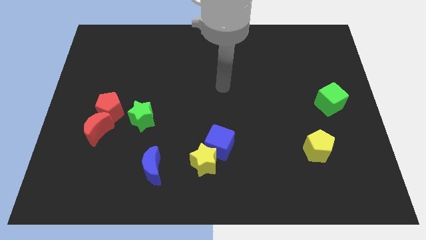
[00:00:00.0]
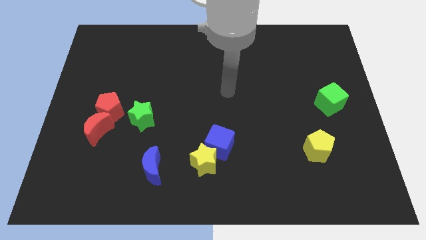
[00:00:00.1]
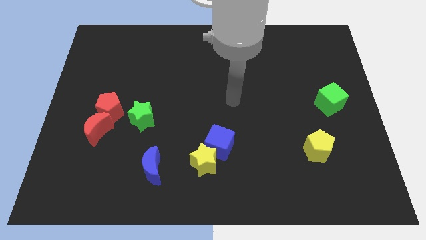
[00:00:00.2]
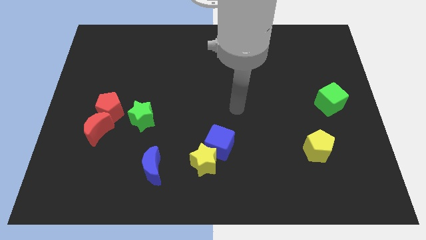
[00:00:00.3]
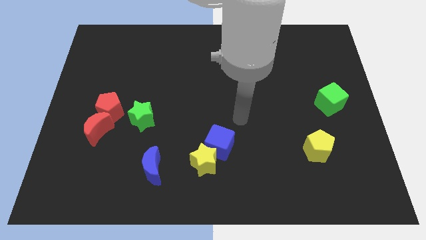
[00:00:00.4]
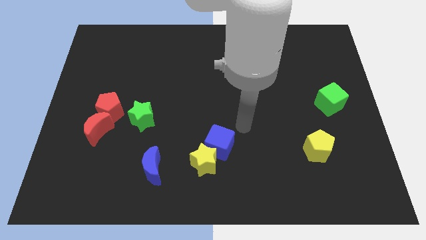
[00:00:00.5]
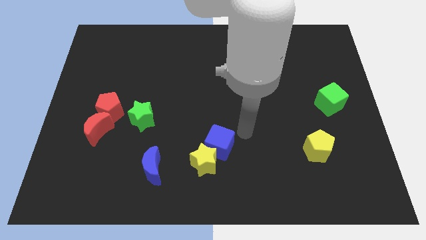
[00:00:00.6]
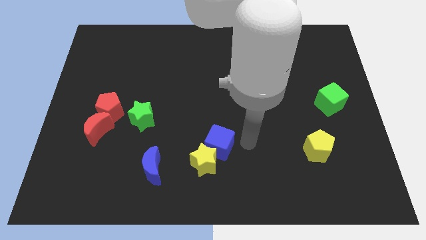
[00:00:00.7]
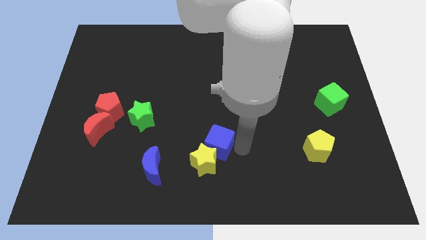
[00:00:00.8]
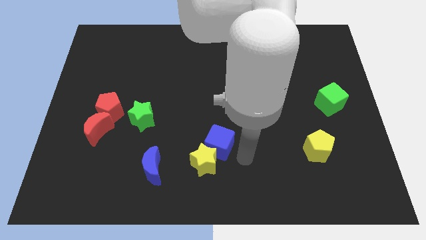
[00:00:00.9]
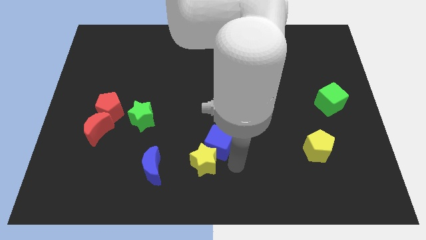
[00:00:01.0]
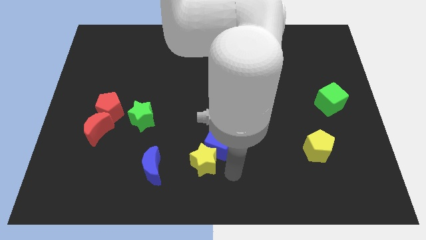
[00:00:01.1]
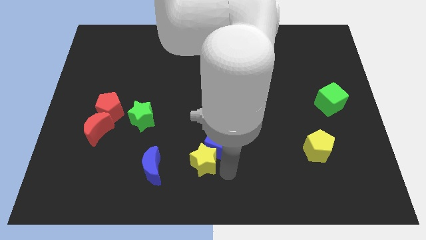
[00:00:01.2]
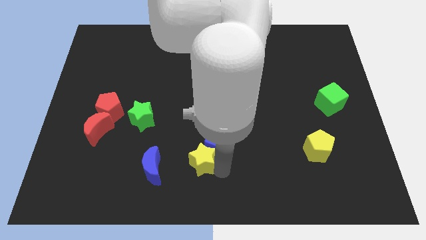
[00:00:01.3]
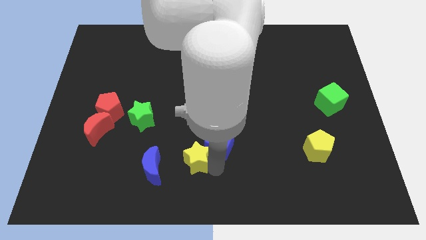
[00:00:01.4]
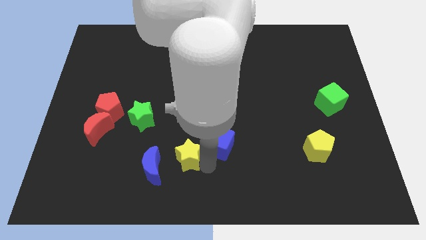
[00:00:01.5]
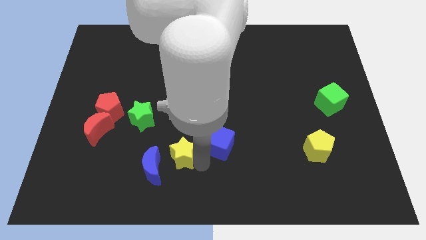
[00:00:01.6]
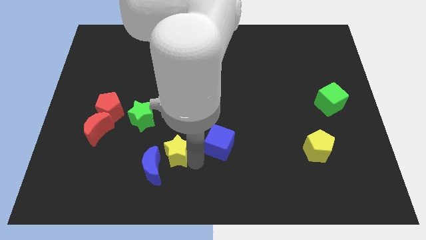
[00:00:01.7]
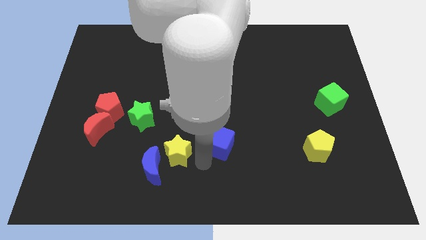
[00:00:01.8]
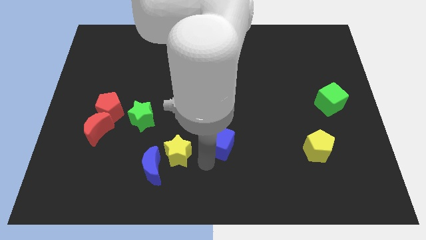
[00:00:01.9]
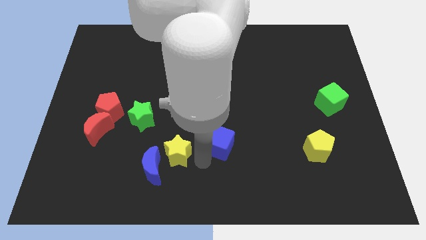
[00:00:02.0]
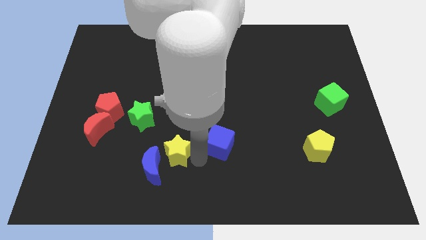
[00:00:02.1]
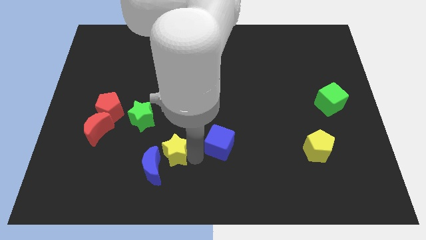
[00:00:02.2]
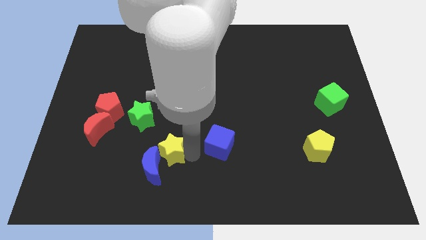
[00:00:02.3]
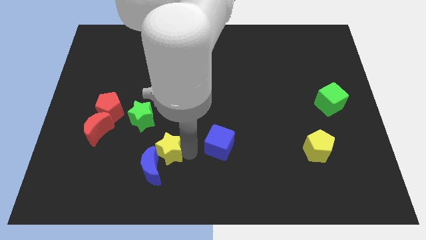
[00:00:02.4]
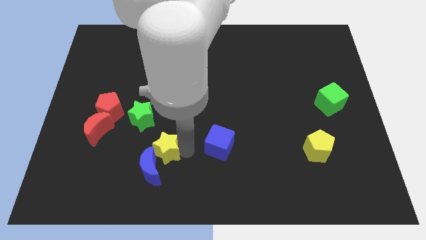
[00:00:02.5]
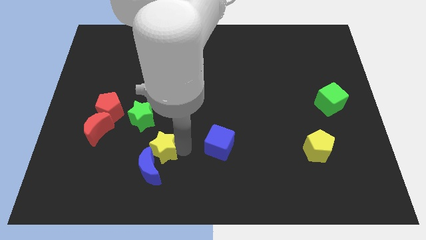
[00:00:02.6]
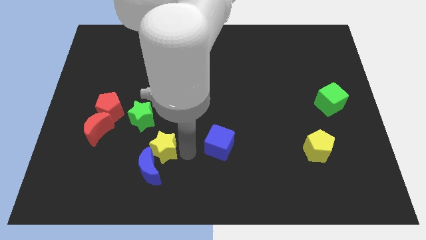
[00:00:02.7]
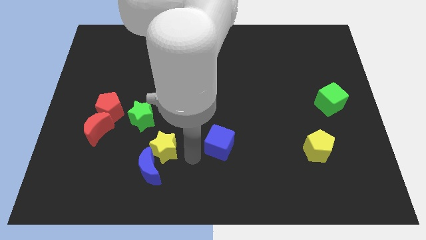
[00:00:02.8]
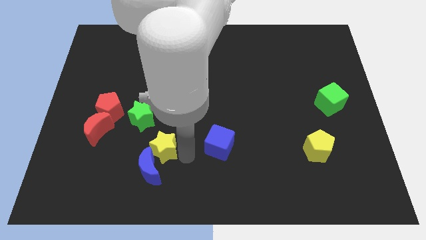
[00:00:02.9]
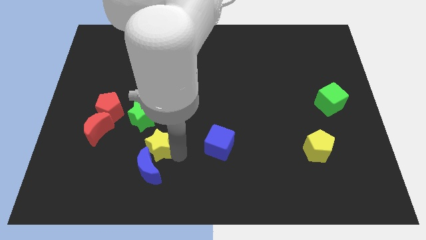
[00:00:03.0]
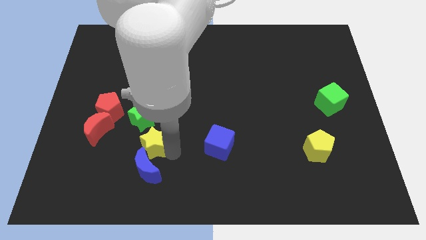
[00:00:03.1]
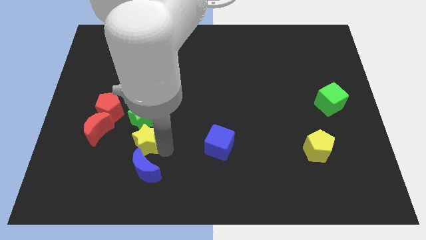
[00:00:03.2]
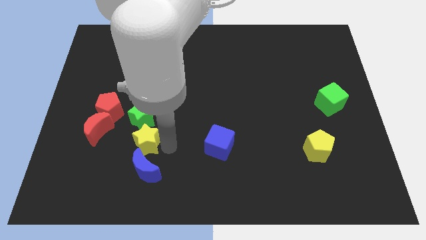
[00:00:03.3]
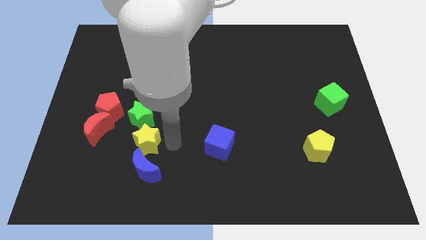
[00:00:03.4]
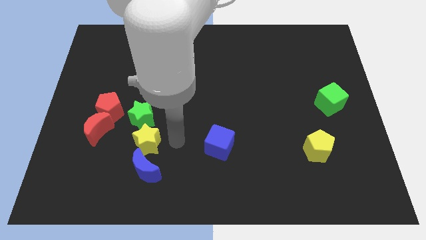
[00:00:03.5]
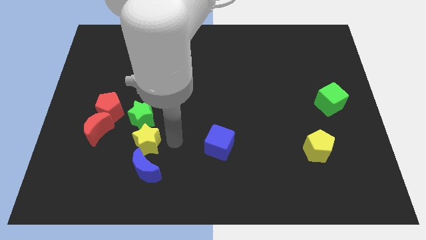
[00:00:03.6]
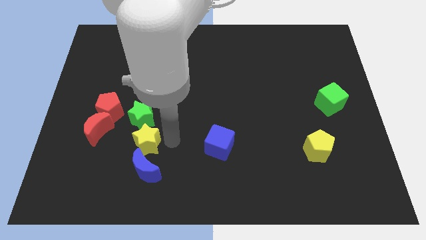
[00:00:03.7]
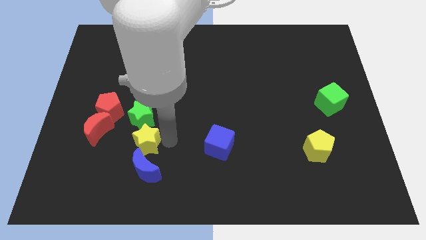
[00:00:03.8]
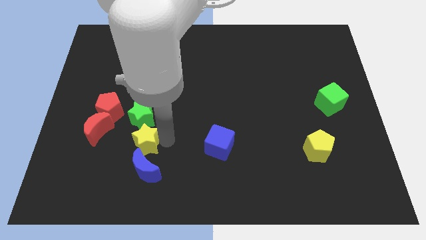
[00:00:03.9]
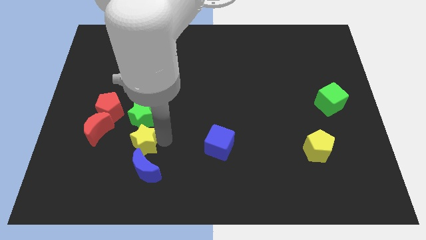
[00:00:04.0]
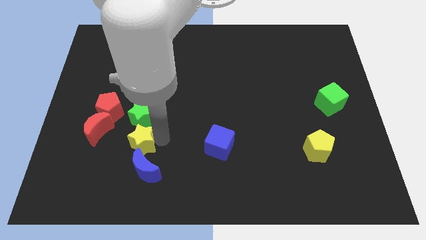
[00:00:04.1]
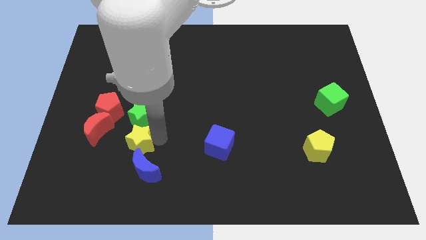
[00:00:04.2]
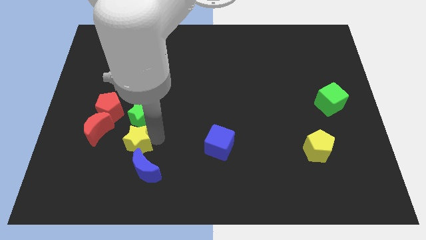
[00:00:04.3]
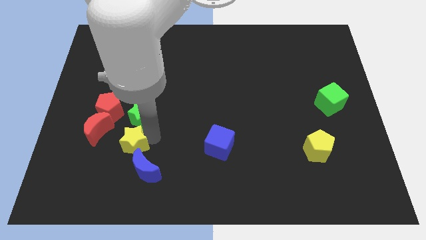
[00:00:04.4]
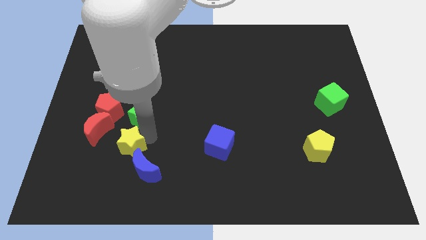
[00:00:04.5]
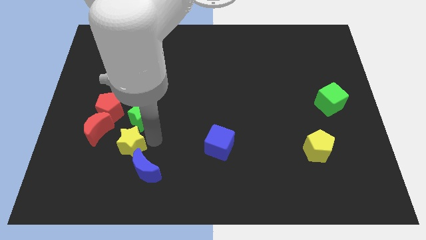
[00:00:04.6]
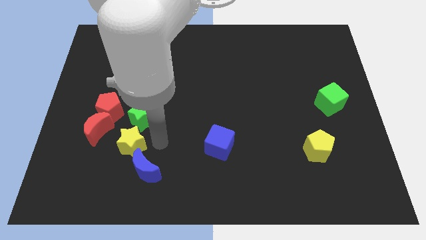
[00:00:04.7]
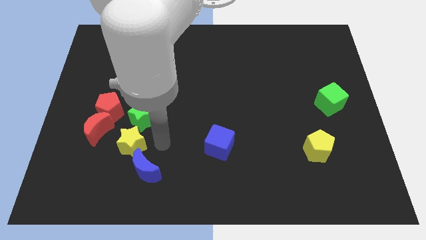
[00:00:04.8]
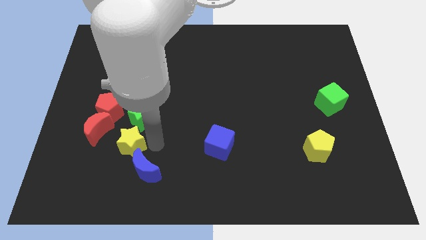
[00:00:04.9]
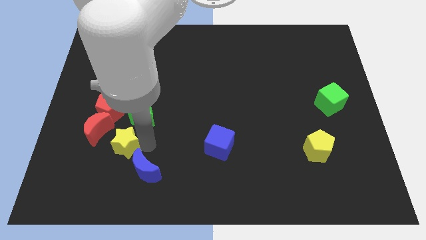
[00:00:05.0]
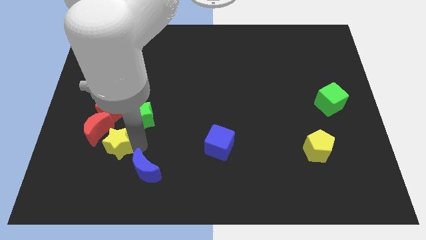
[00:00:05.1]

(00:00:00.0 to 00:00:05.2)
move the yellow star to the bottom side of the red pentagon

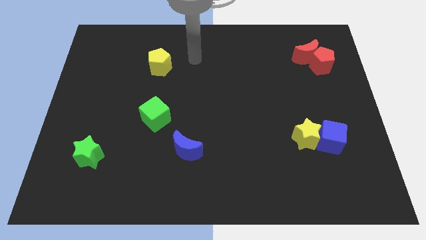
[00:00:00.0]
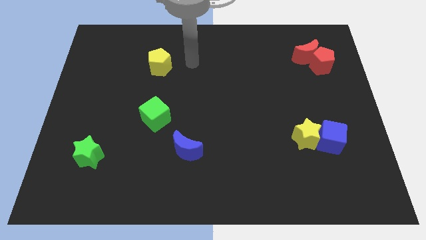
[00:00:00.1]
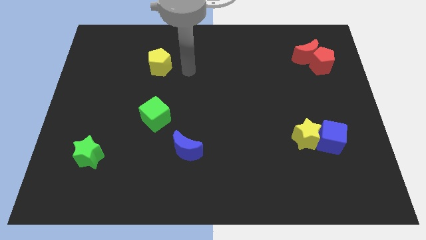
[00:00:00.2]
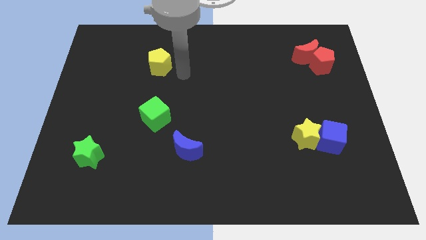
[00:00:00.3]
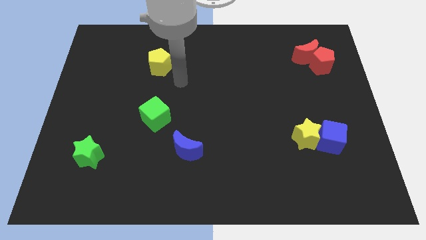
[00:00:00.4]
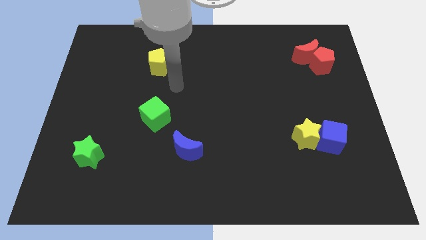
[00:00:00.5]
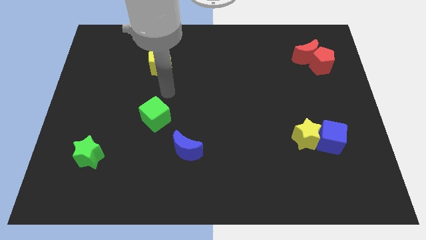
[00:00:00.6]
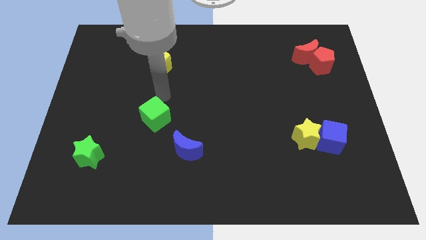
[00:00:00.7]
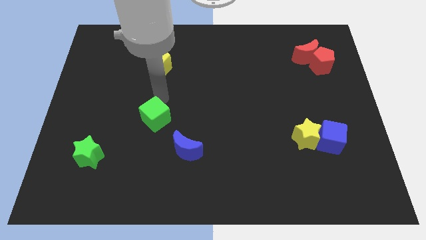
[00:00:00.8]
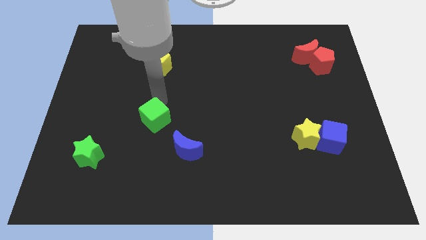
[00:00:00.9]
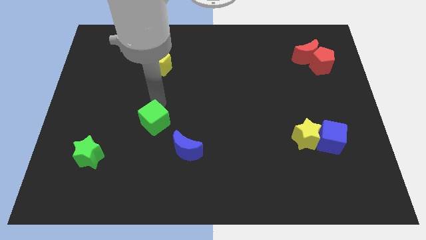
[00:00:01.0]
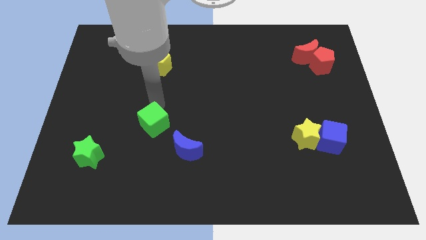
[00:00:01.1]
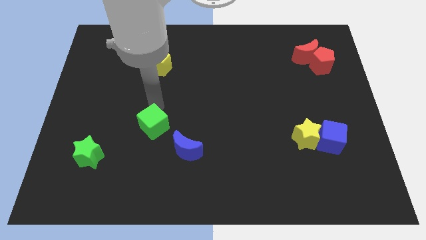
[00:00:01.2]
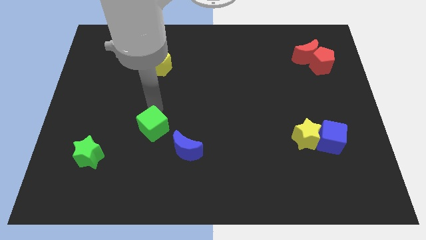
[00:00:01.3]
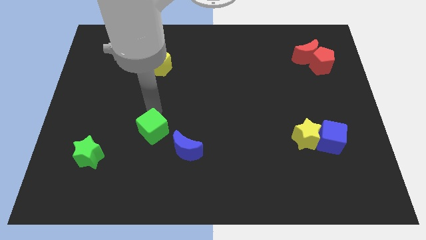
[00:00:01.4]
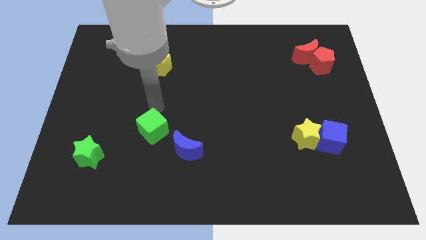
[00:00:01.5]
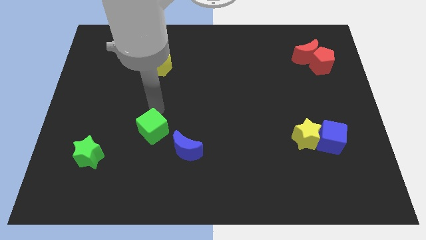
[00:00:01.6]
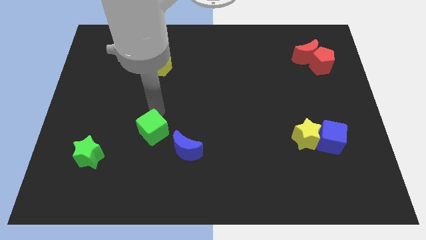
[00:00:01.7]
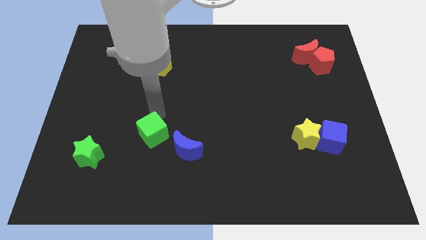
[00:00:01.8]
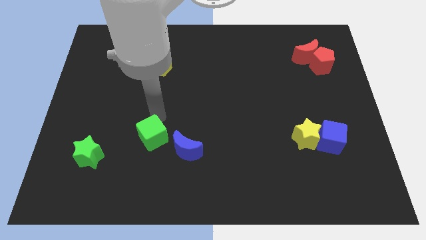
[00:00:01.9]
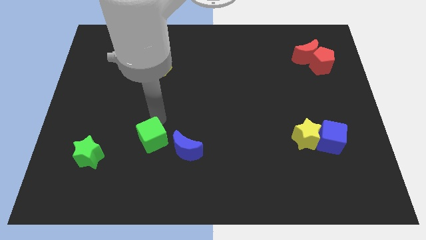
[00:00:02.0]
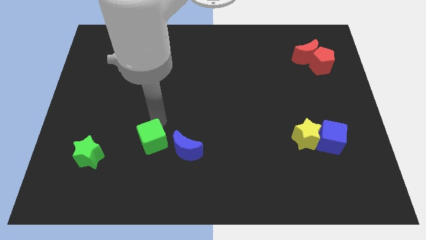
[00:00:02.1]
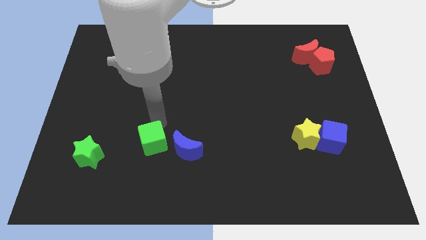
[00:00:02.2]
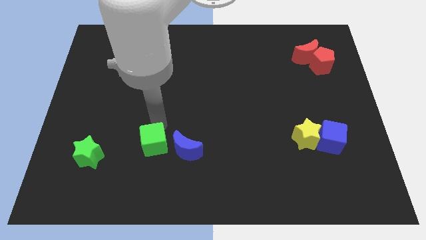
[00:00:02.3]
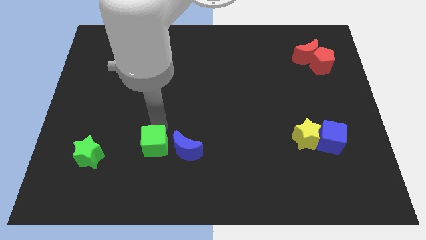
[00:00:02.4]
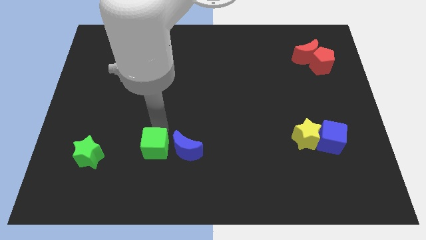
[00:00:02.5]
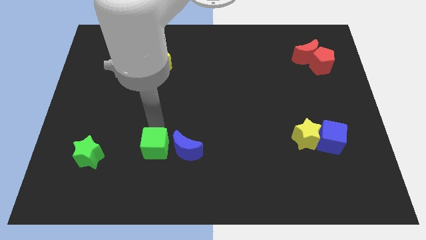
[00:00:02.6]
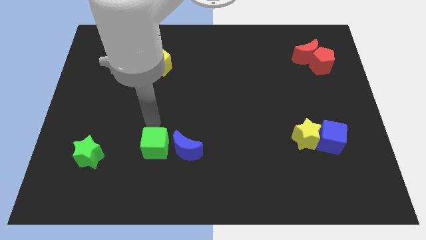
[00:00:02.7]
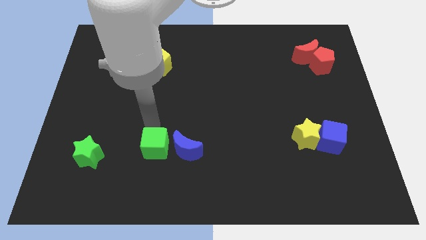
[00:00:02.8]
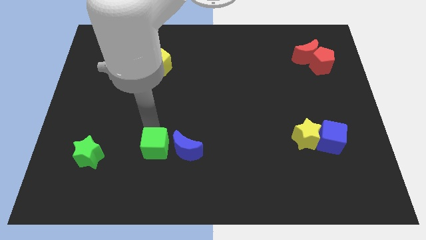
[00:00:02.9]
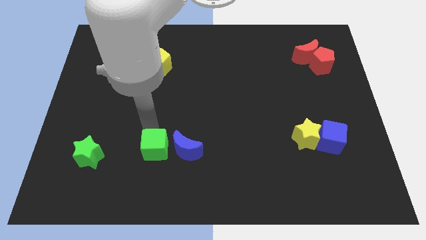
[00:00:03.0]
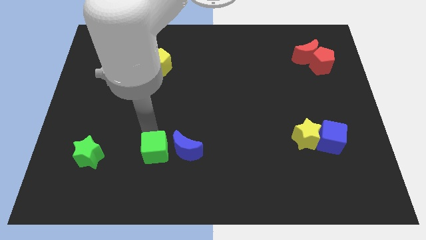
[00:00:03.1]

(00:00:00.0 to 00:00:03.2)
push the green cube to the bottom left of the blue moon
